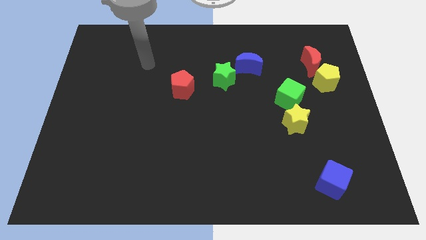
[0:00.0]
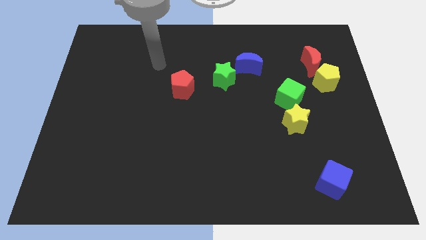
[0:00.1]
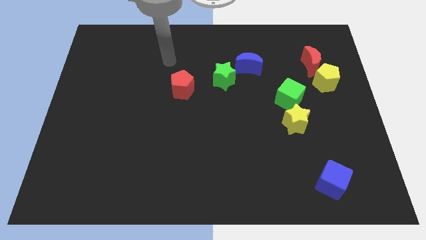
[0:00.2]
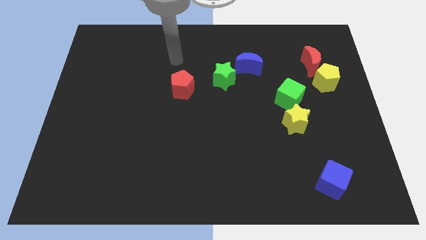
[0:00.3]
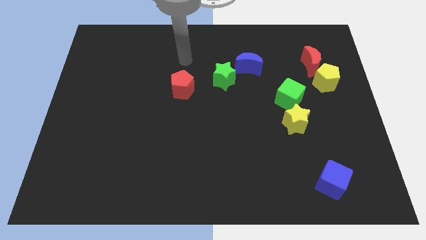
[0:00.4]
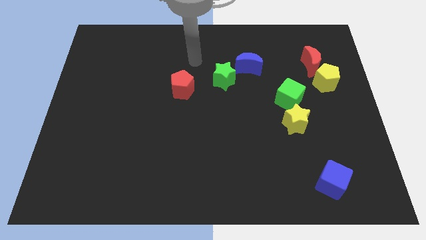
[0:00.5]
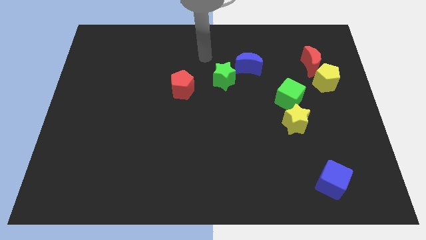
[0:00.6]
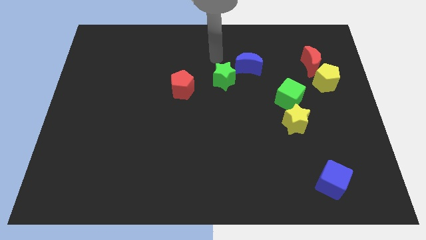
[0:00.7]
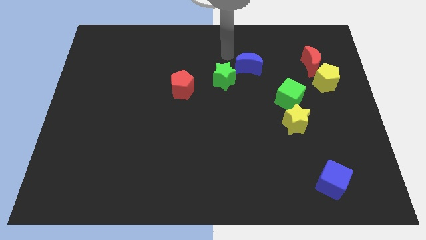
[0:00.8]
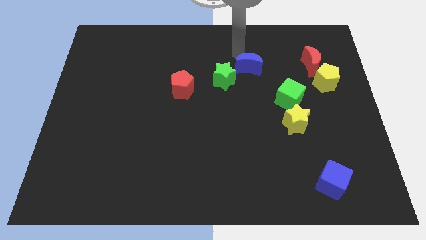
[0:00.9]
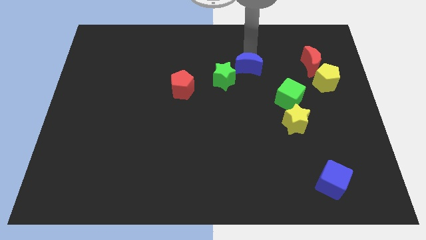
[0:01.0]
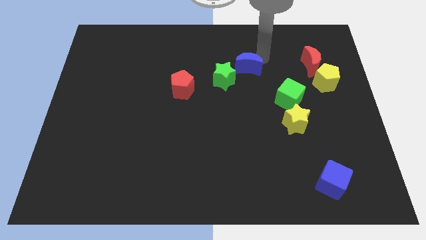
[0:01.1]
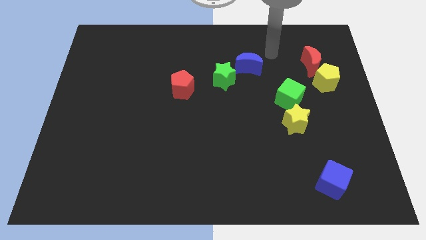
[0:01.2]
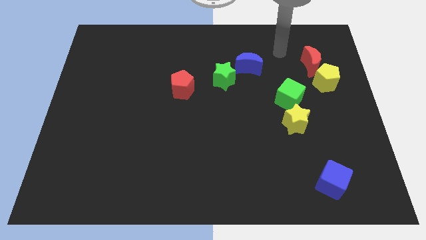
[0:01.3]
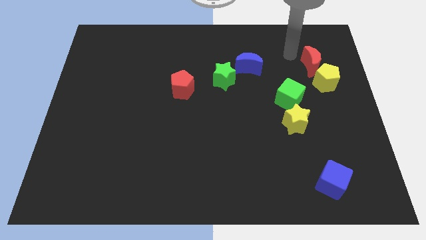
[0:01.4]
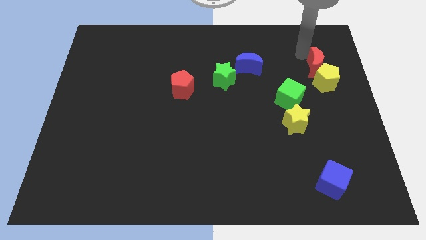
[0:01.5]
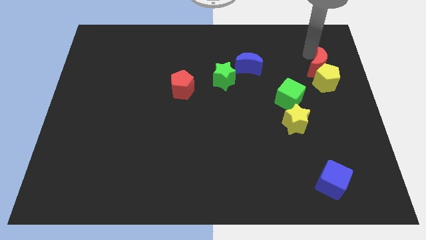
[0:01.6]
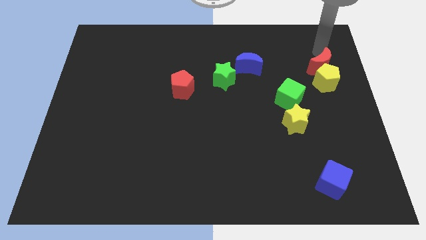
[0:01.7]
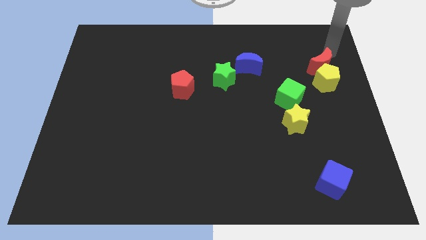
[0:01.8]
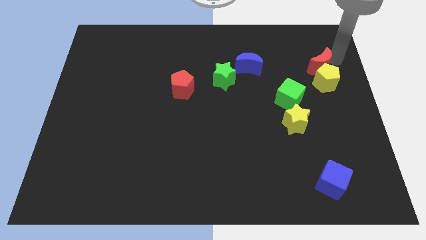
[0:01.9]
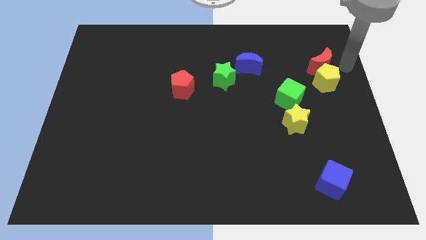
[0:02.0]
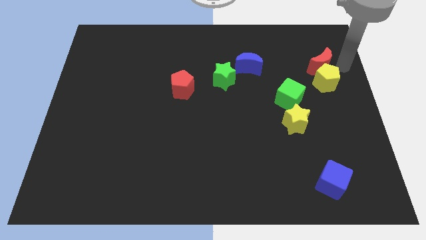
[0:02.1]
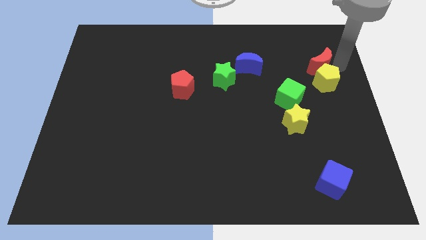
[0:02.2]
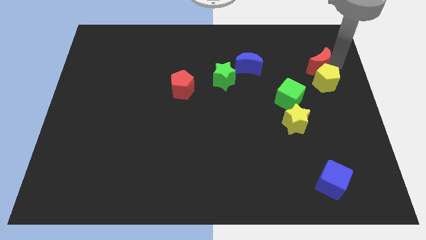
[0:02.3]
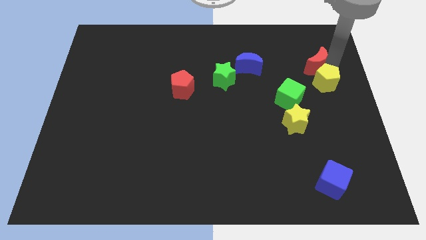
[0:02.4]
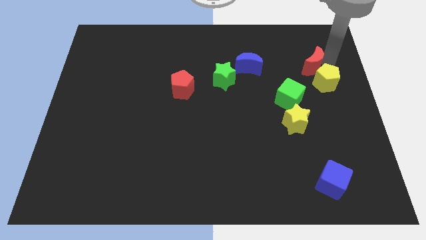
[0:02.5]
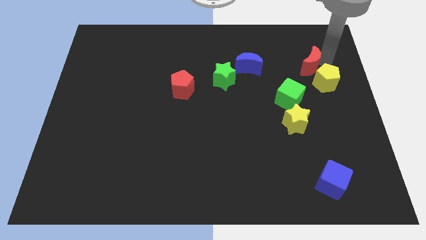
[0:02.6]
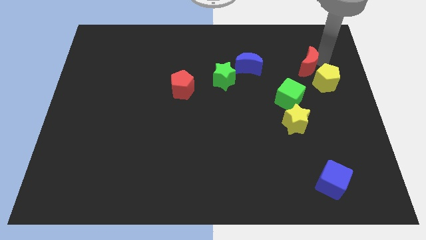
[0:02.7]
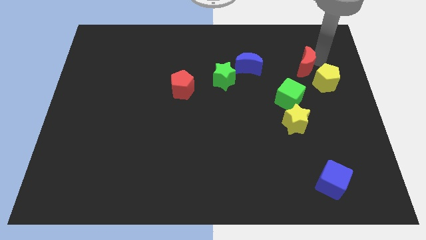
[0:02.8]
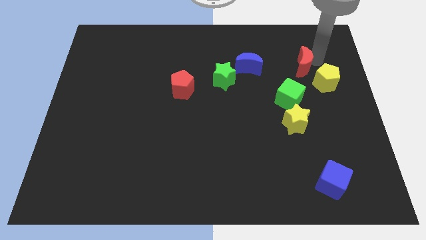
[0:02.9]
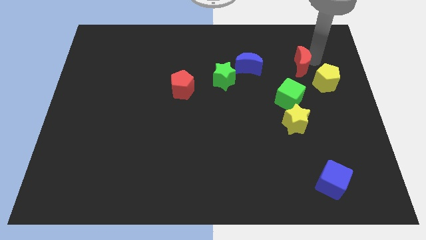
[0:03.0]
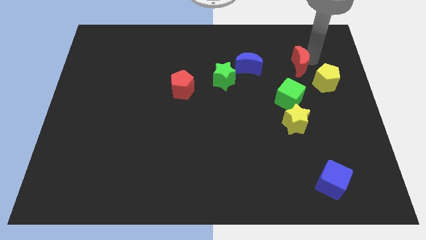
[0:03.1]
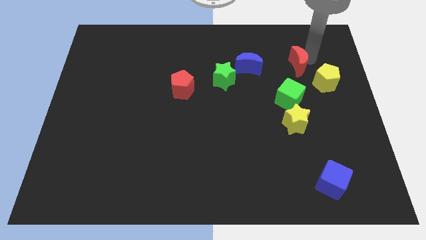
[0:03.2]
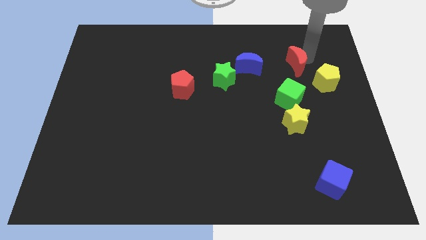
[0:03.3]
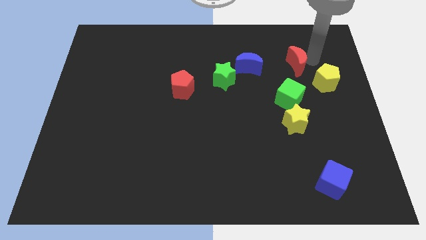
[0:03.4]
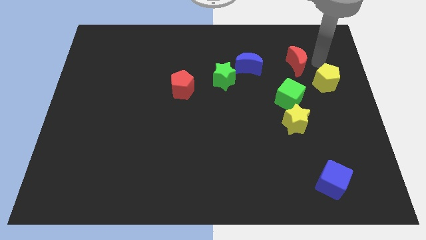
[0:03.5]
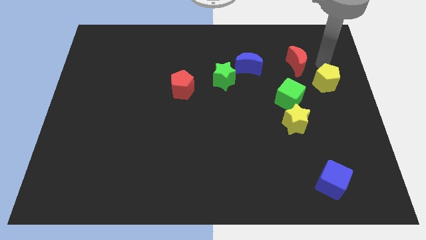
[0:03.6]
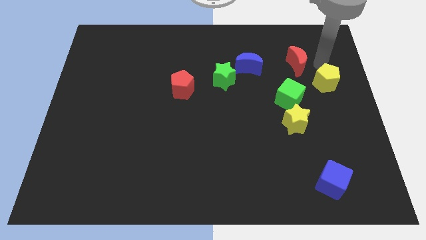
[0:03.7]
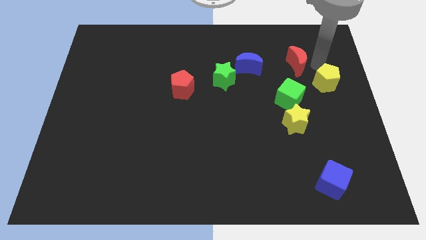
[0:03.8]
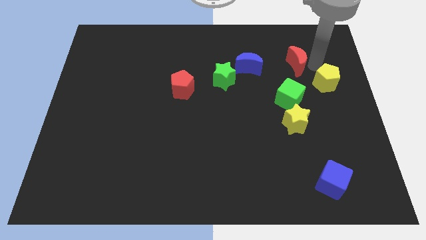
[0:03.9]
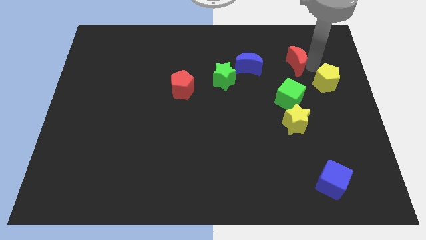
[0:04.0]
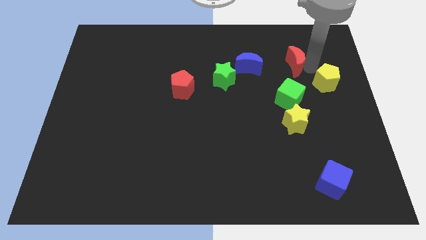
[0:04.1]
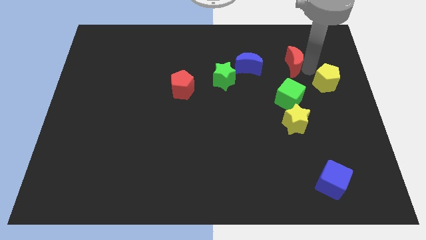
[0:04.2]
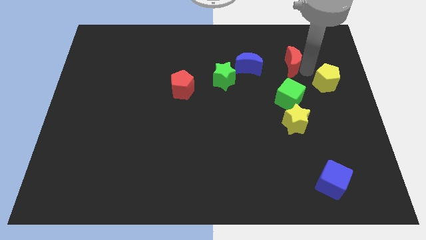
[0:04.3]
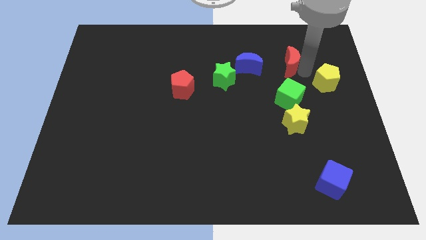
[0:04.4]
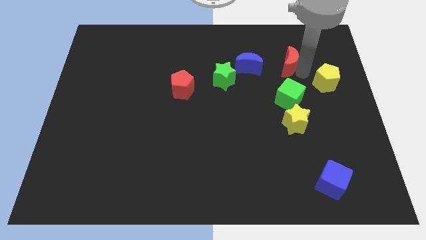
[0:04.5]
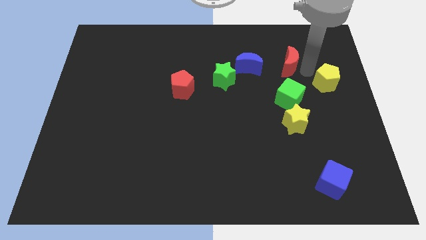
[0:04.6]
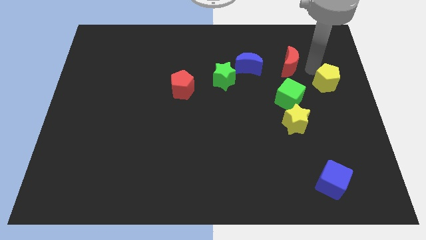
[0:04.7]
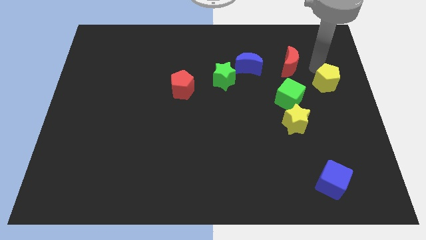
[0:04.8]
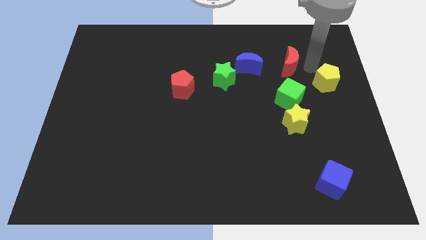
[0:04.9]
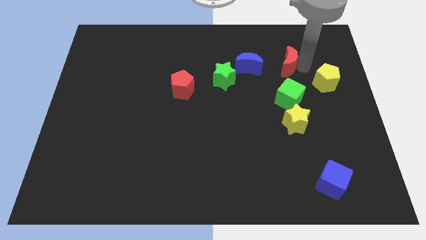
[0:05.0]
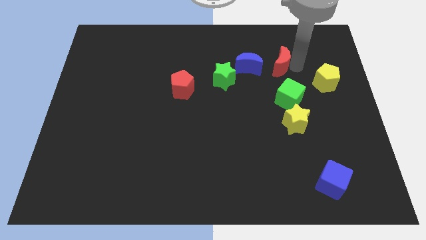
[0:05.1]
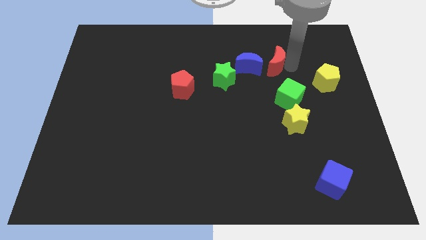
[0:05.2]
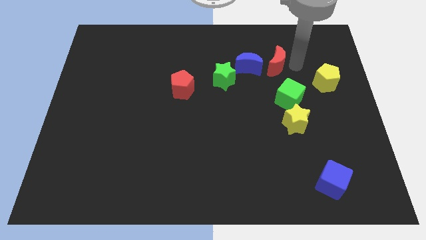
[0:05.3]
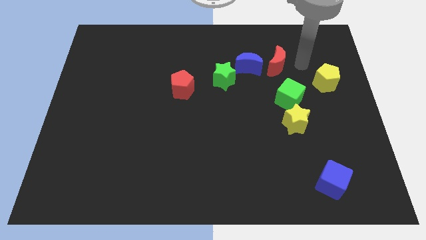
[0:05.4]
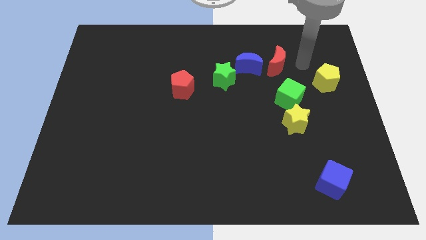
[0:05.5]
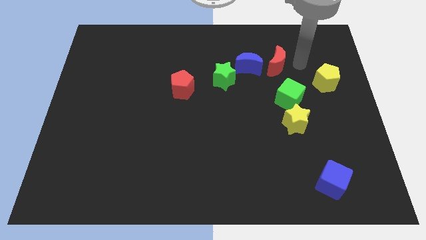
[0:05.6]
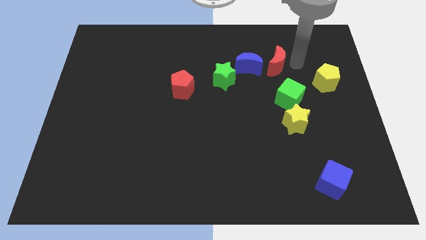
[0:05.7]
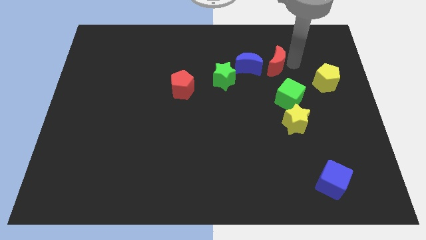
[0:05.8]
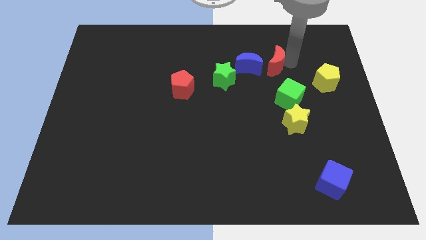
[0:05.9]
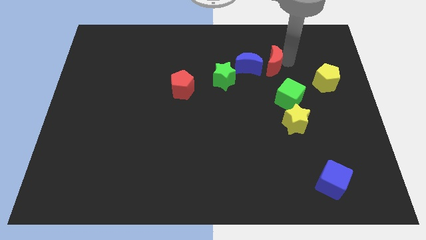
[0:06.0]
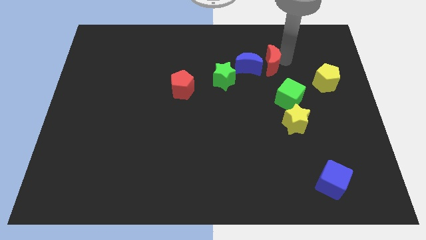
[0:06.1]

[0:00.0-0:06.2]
push the red moon close to the blue moon

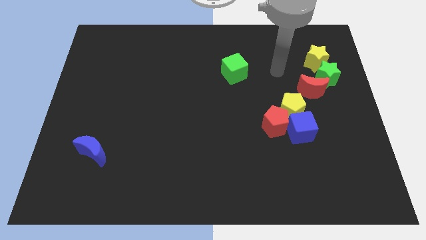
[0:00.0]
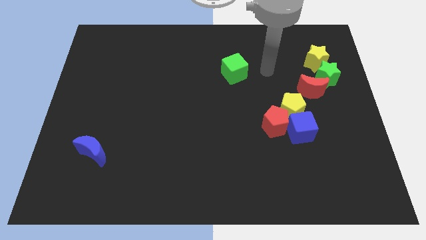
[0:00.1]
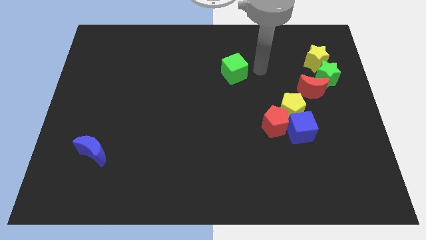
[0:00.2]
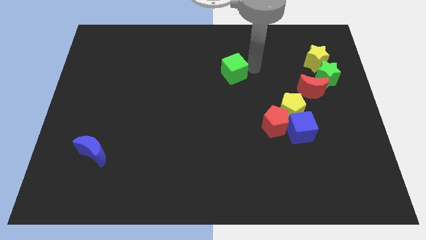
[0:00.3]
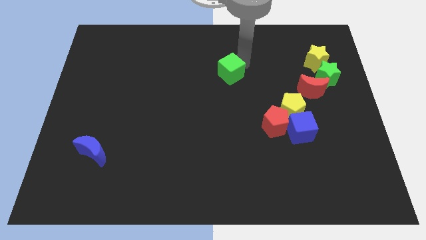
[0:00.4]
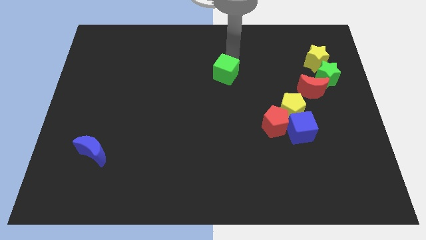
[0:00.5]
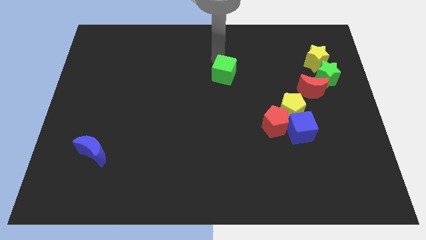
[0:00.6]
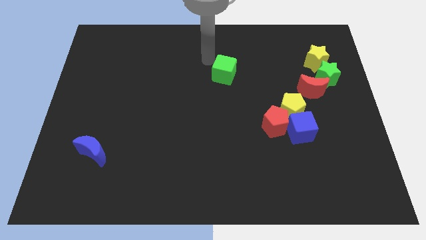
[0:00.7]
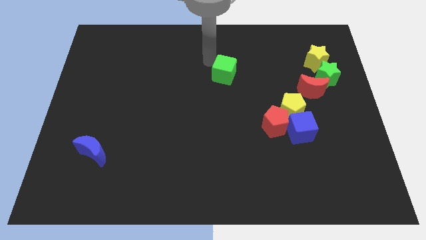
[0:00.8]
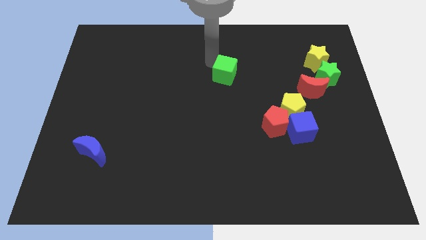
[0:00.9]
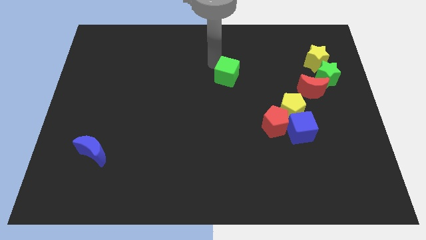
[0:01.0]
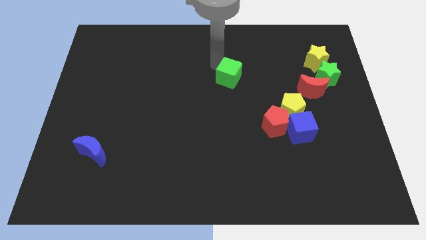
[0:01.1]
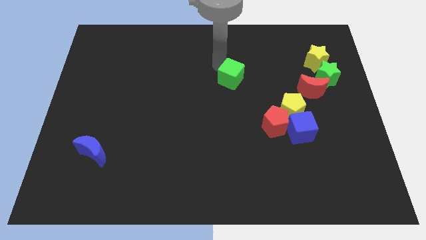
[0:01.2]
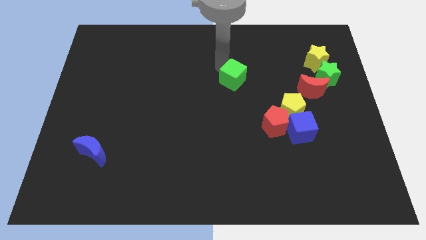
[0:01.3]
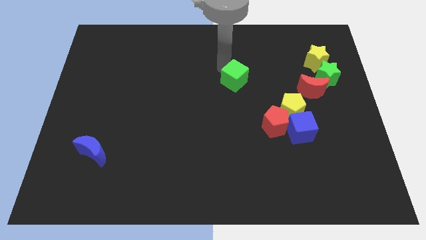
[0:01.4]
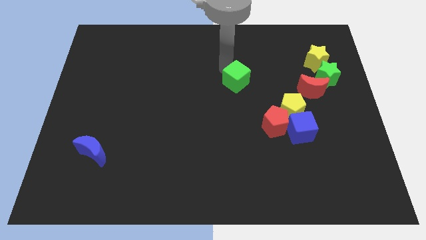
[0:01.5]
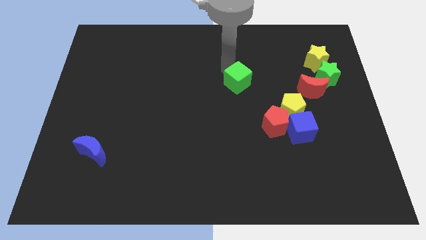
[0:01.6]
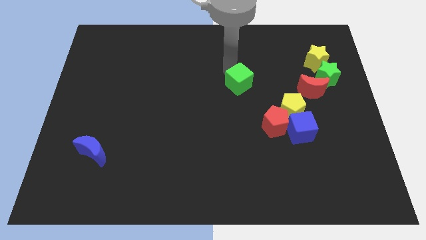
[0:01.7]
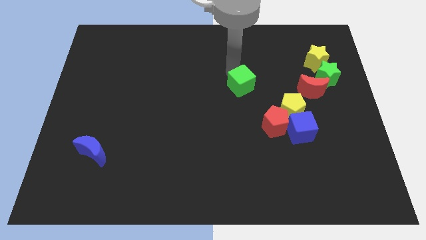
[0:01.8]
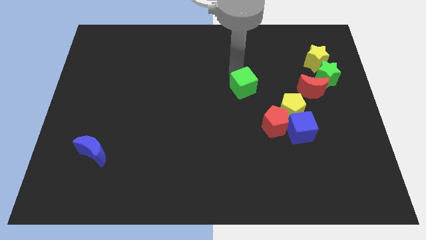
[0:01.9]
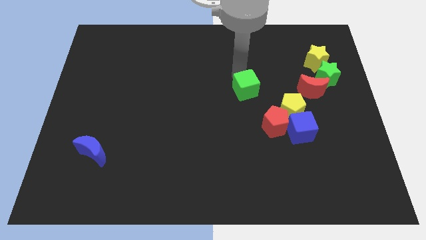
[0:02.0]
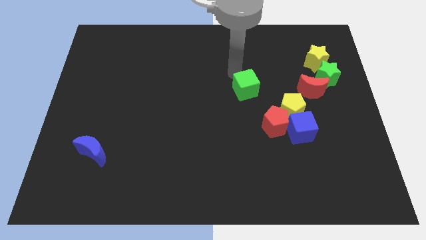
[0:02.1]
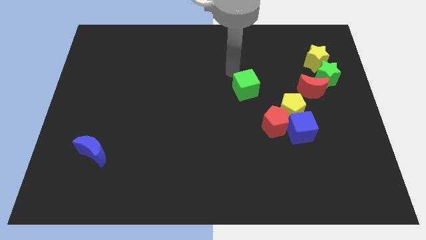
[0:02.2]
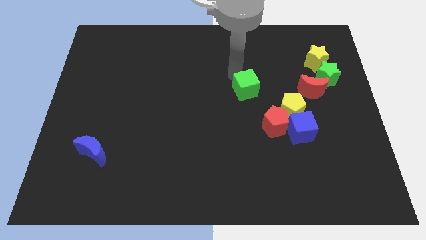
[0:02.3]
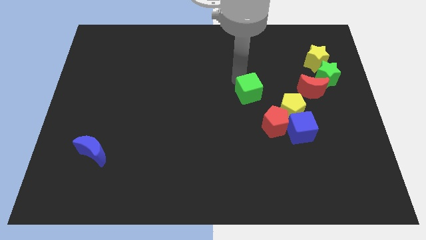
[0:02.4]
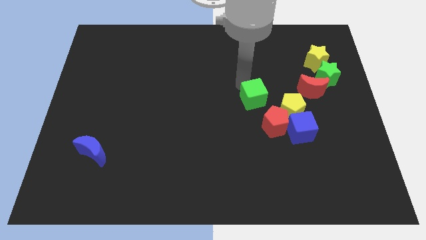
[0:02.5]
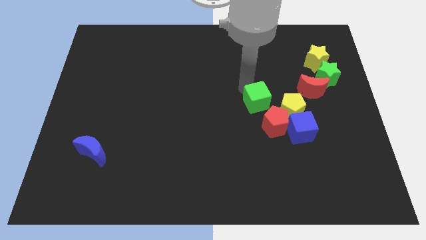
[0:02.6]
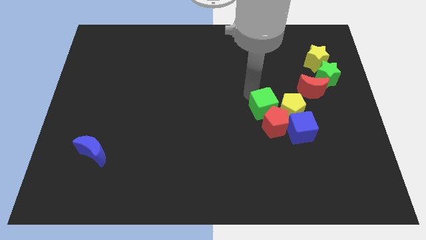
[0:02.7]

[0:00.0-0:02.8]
slide the green cube to the red pentagon
